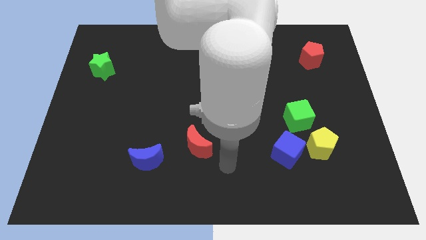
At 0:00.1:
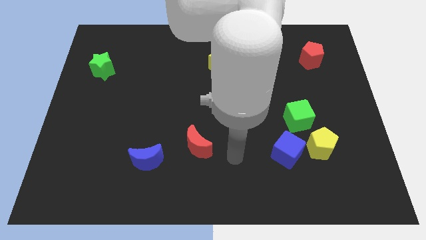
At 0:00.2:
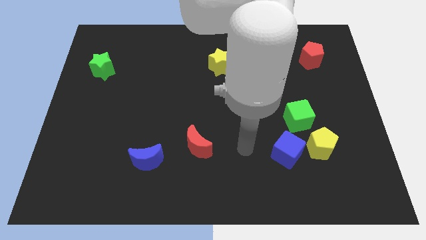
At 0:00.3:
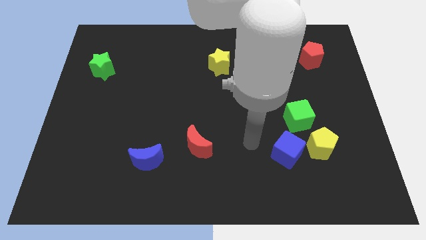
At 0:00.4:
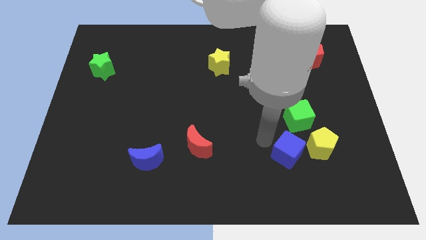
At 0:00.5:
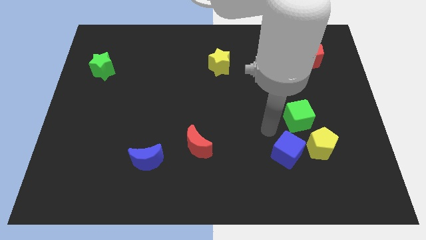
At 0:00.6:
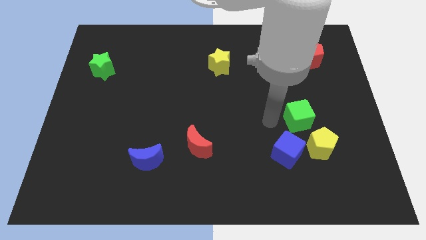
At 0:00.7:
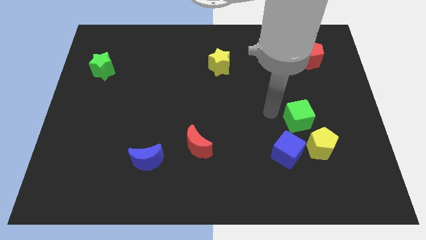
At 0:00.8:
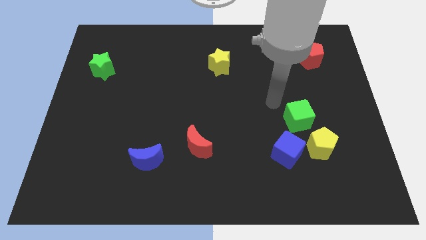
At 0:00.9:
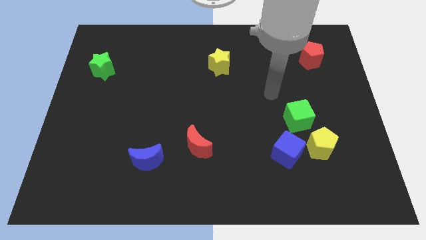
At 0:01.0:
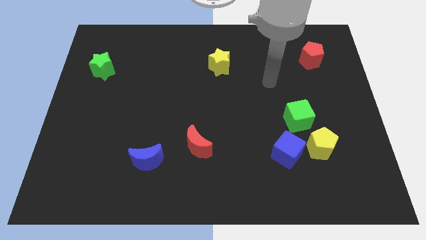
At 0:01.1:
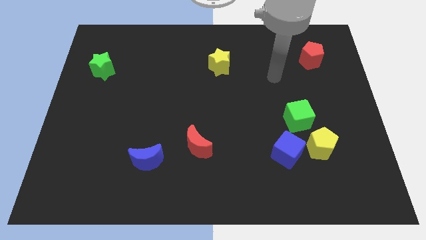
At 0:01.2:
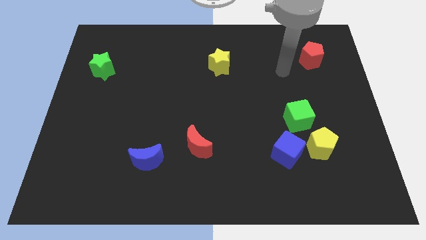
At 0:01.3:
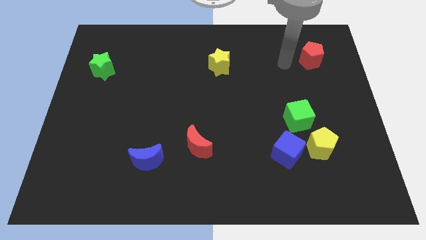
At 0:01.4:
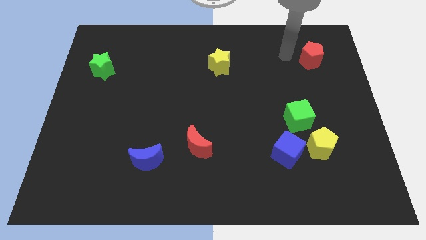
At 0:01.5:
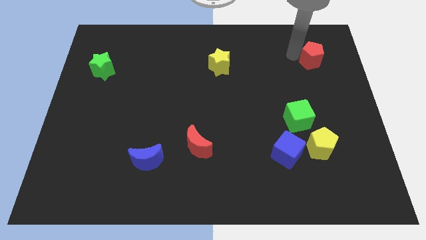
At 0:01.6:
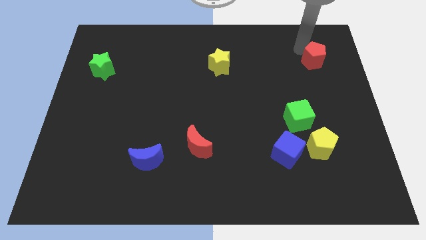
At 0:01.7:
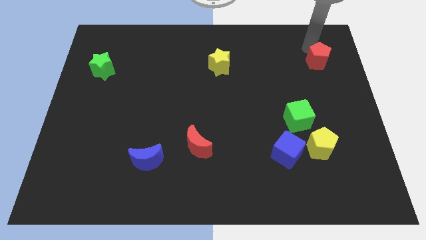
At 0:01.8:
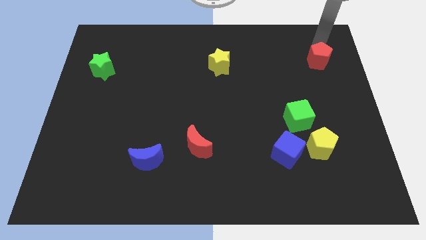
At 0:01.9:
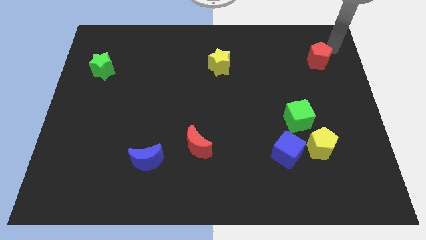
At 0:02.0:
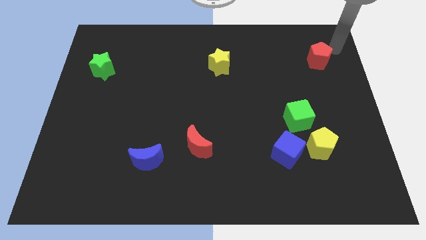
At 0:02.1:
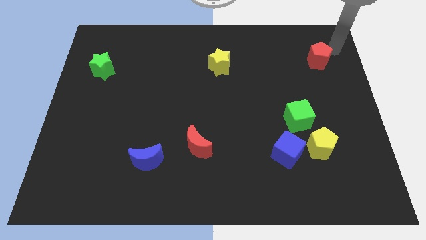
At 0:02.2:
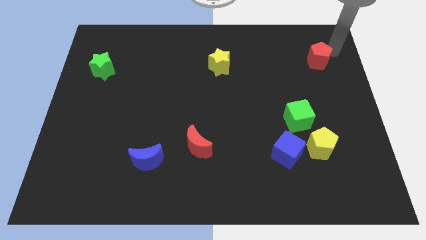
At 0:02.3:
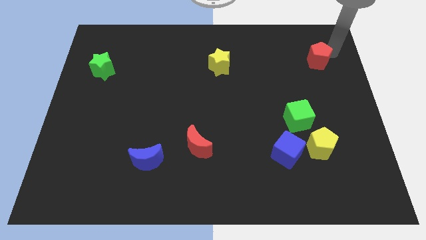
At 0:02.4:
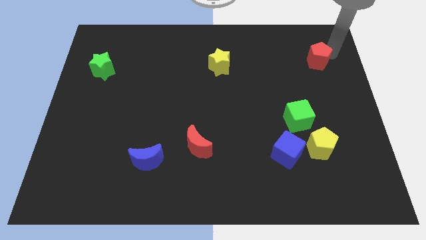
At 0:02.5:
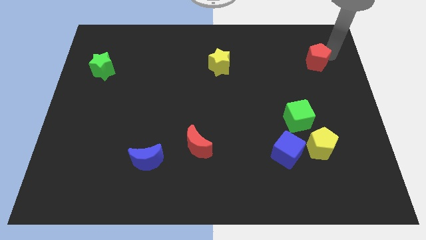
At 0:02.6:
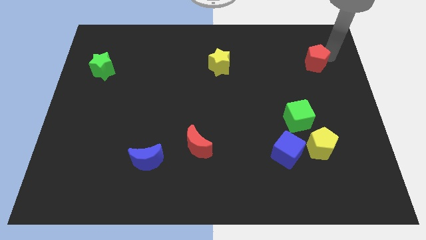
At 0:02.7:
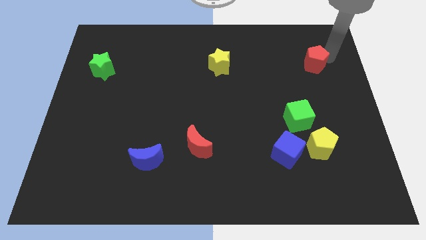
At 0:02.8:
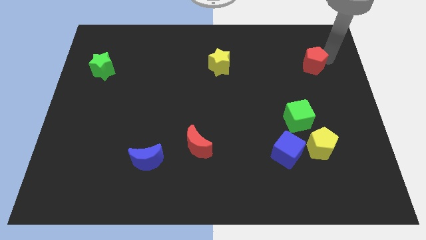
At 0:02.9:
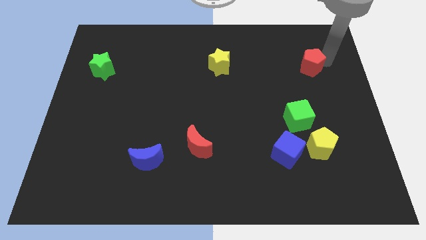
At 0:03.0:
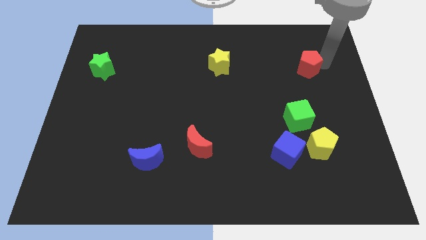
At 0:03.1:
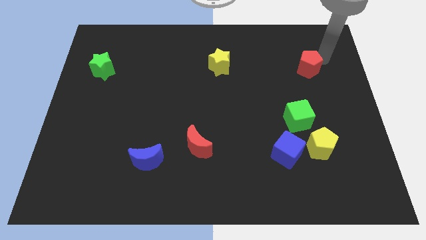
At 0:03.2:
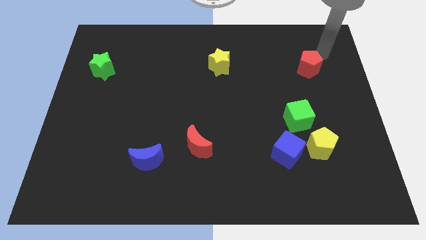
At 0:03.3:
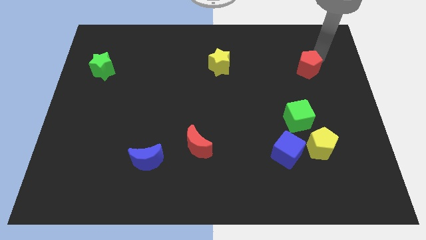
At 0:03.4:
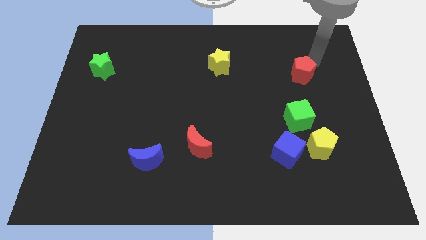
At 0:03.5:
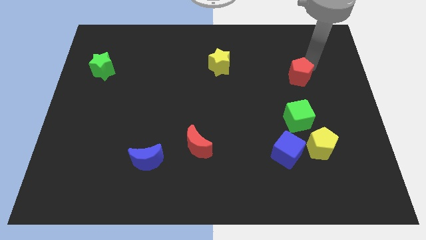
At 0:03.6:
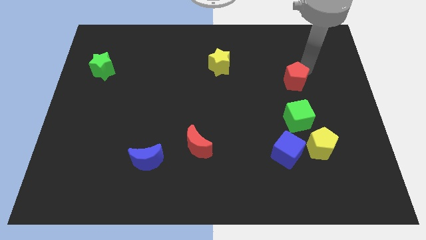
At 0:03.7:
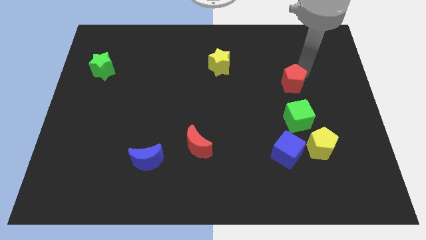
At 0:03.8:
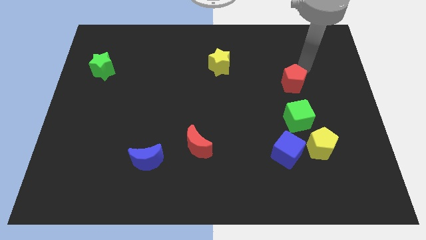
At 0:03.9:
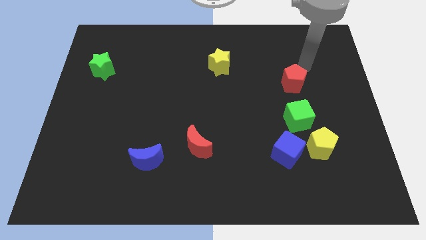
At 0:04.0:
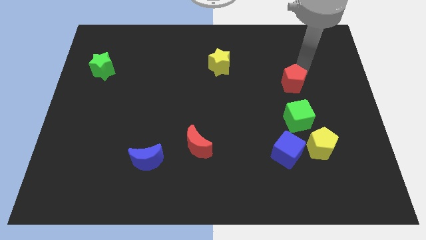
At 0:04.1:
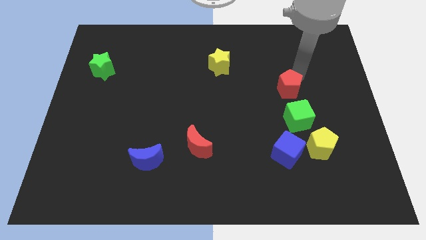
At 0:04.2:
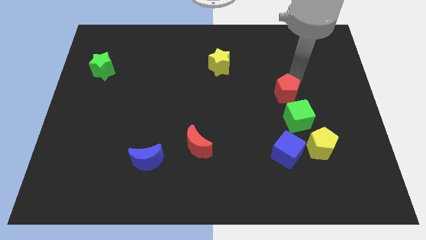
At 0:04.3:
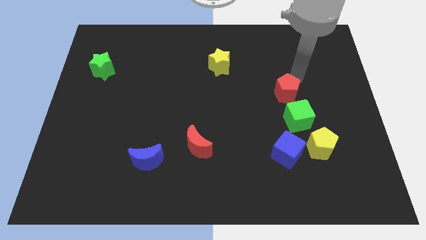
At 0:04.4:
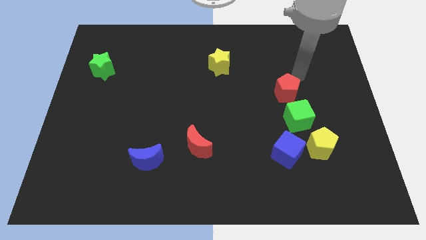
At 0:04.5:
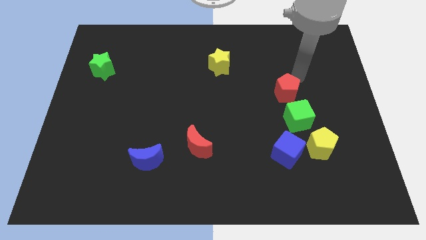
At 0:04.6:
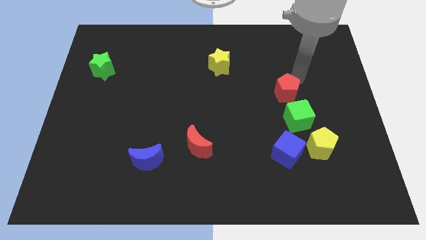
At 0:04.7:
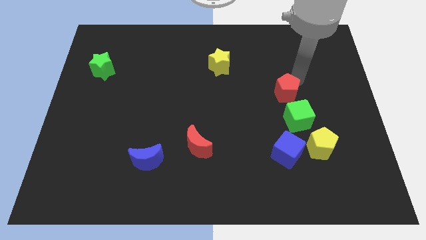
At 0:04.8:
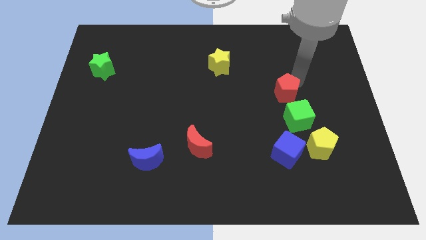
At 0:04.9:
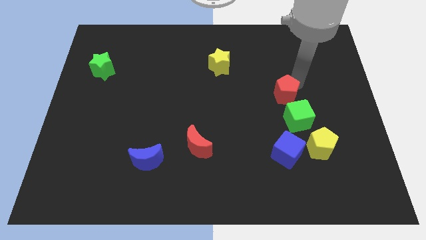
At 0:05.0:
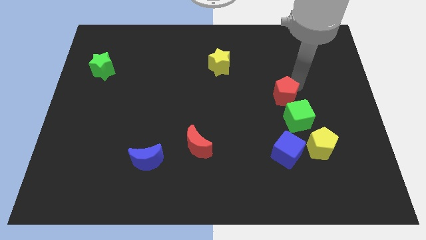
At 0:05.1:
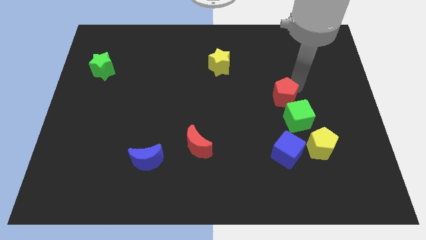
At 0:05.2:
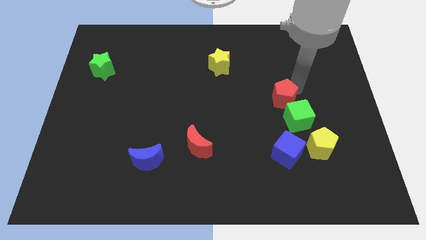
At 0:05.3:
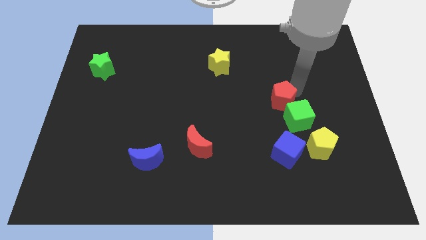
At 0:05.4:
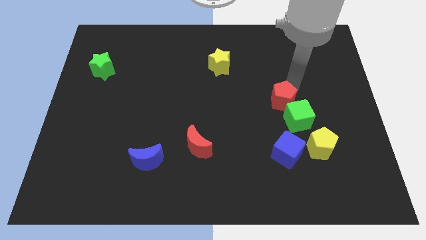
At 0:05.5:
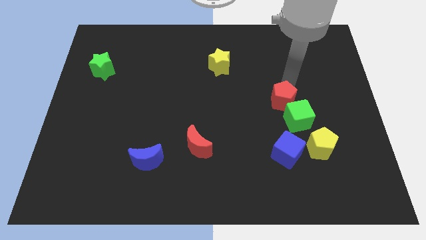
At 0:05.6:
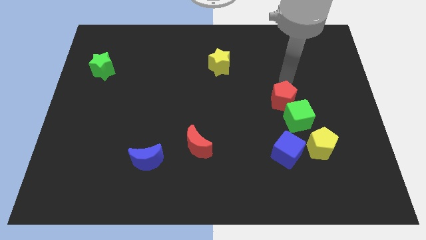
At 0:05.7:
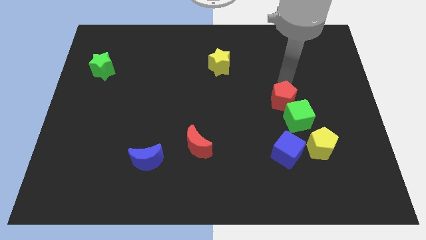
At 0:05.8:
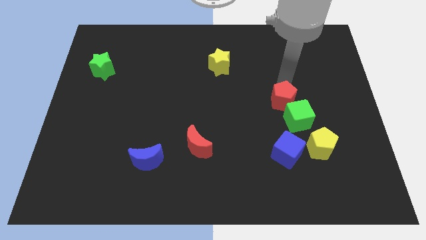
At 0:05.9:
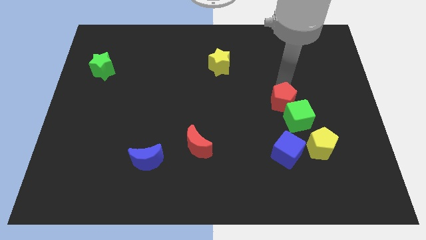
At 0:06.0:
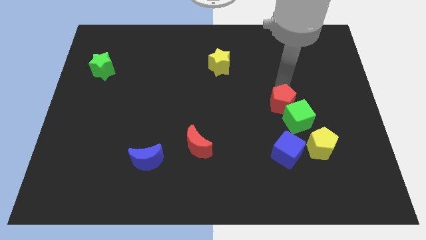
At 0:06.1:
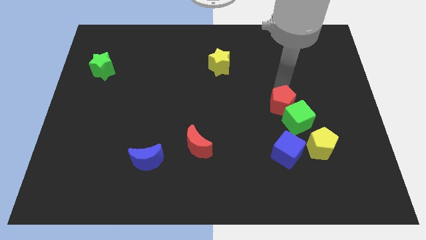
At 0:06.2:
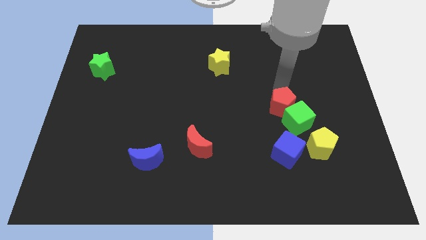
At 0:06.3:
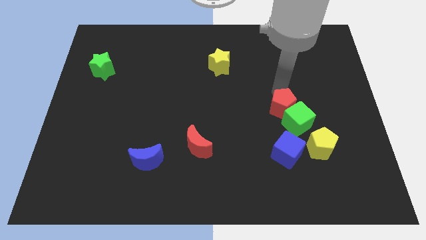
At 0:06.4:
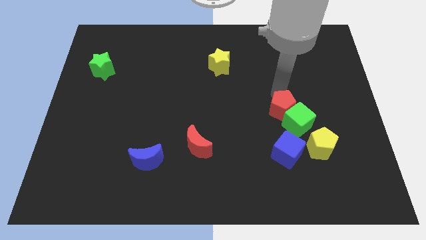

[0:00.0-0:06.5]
move the red pentagon to the top left side of the yellow pentagon

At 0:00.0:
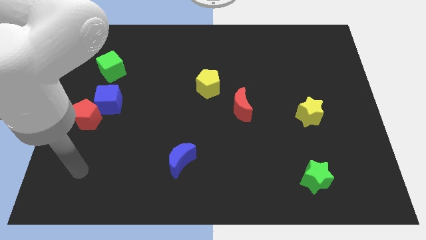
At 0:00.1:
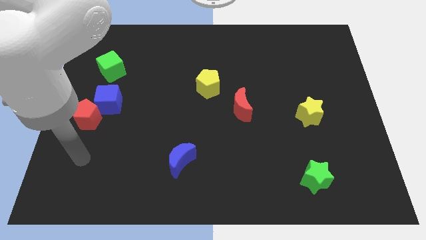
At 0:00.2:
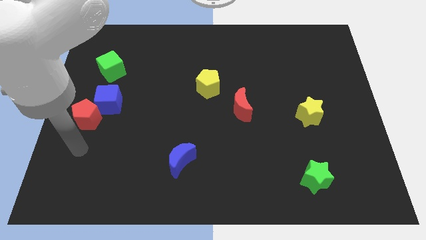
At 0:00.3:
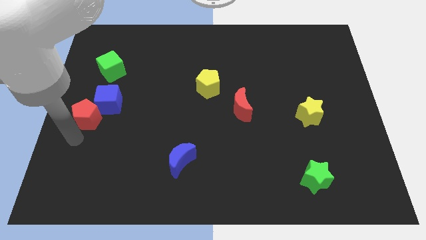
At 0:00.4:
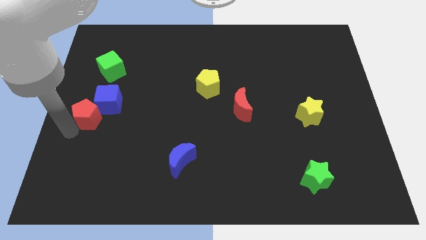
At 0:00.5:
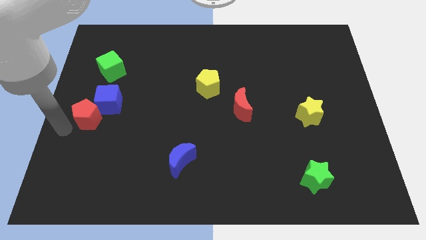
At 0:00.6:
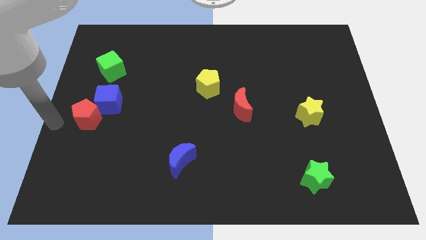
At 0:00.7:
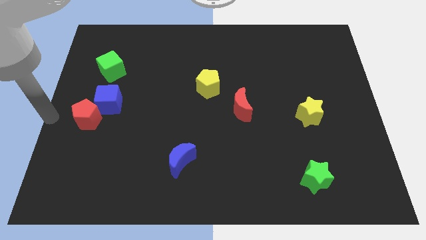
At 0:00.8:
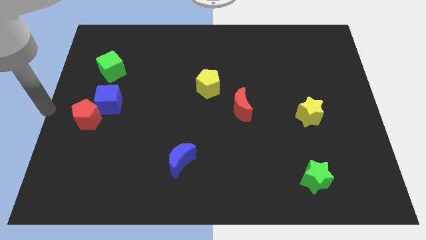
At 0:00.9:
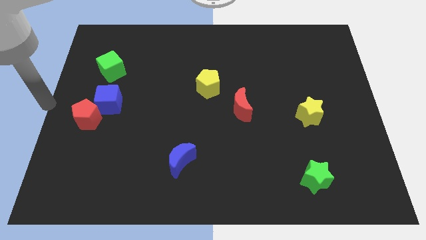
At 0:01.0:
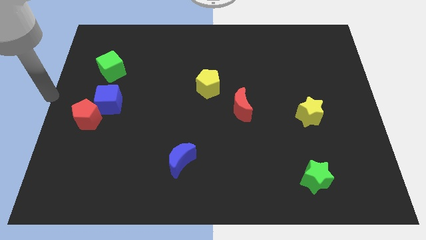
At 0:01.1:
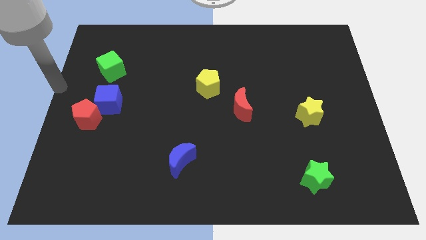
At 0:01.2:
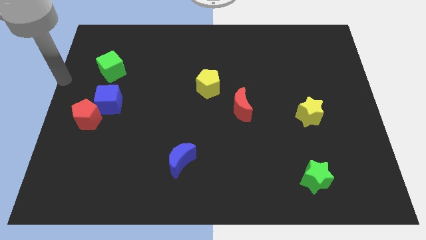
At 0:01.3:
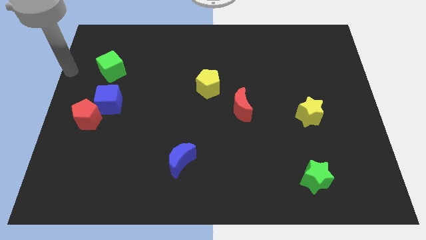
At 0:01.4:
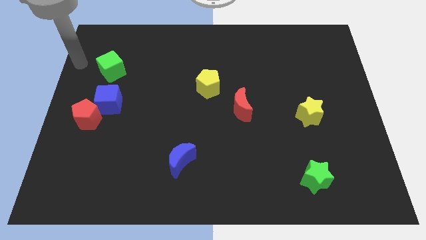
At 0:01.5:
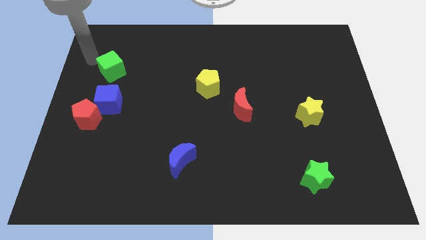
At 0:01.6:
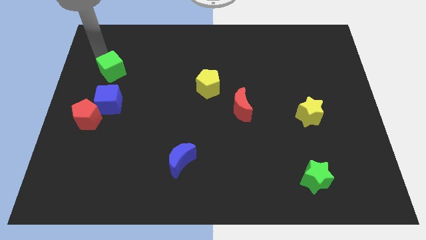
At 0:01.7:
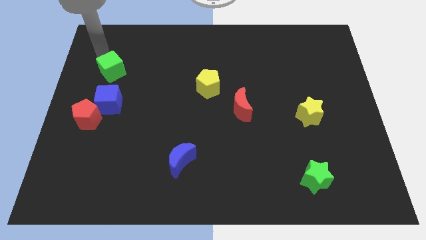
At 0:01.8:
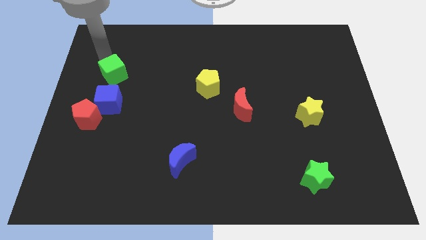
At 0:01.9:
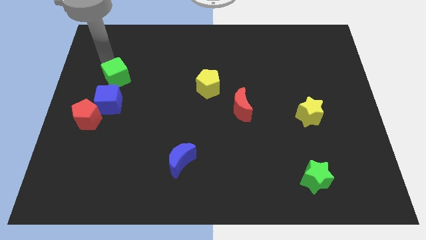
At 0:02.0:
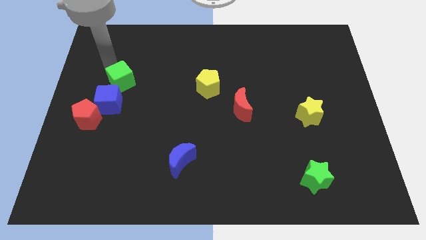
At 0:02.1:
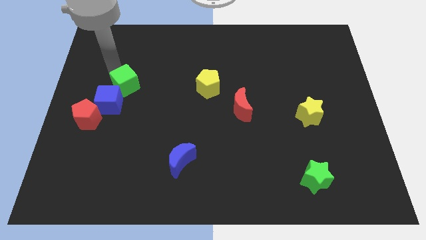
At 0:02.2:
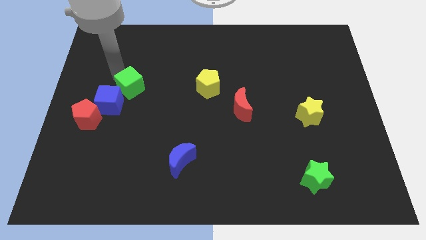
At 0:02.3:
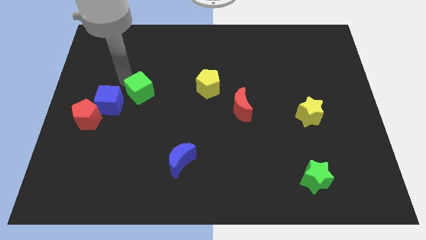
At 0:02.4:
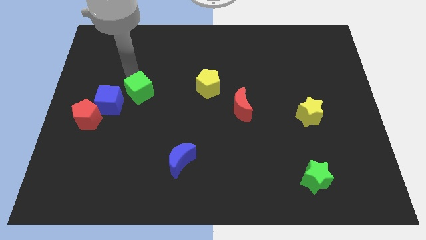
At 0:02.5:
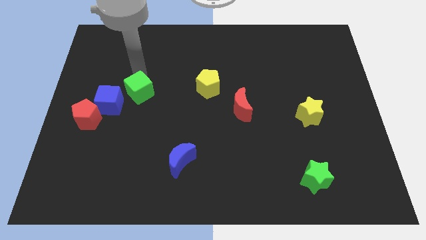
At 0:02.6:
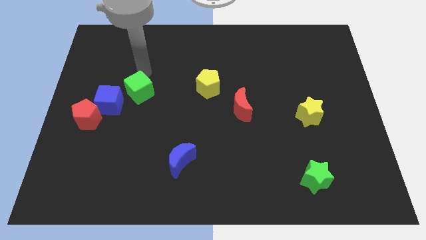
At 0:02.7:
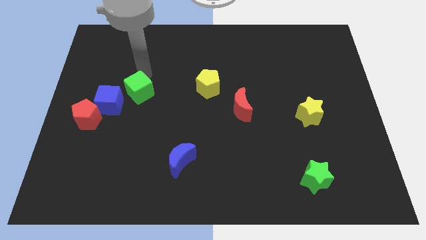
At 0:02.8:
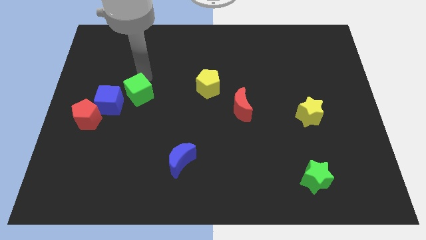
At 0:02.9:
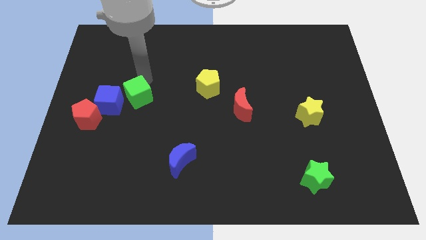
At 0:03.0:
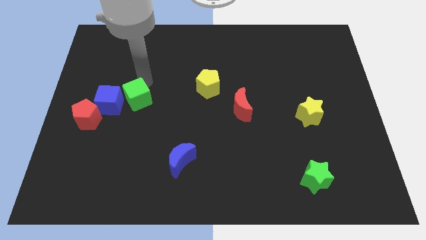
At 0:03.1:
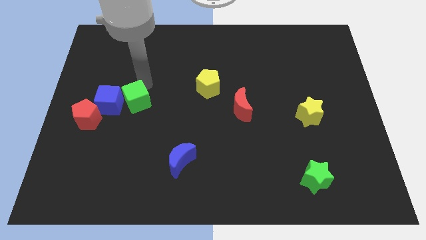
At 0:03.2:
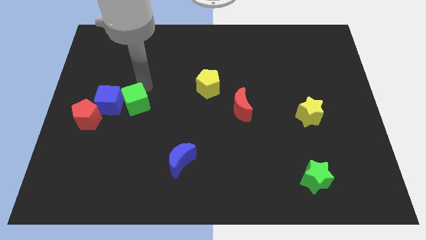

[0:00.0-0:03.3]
move the green cube right of the red pentagon
